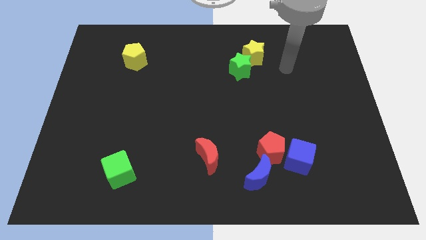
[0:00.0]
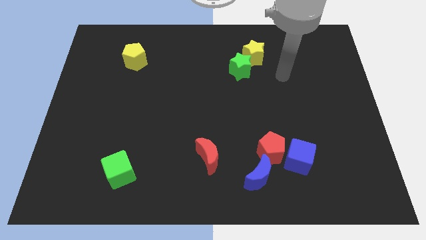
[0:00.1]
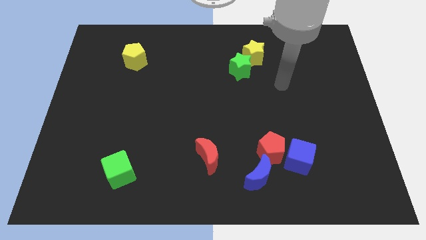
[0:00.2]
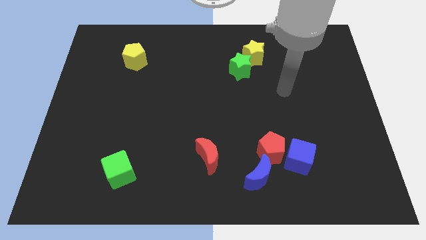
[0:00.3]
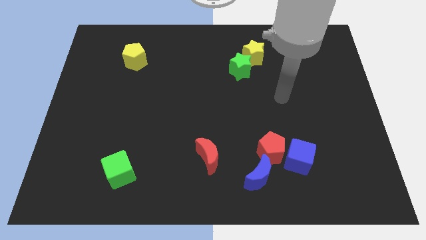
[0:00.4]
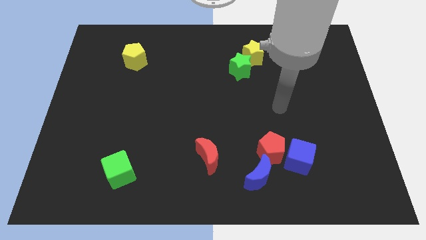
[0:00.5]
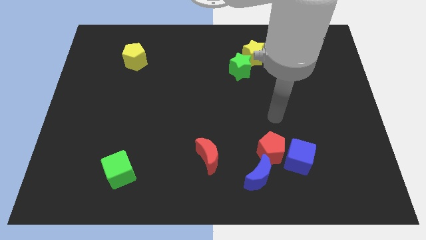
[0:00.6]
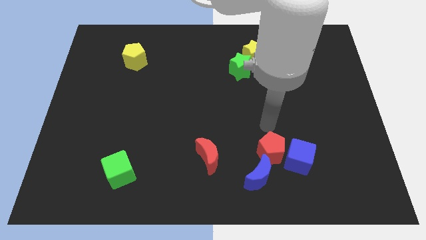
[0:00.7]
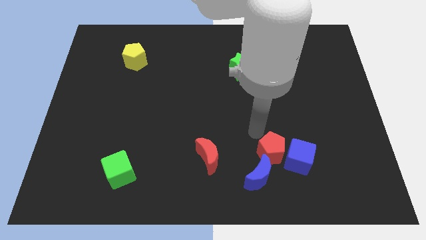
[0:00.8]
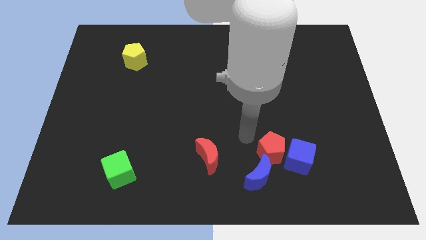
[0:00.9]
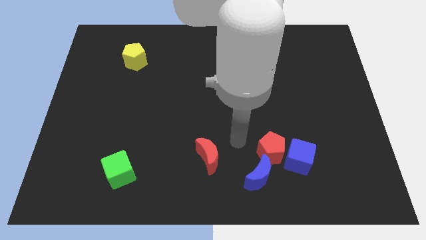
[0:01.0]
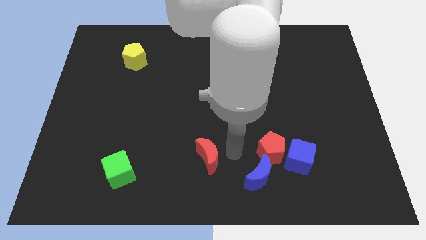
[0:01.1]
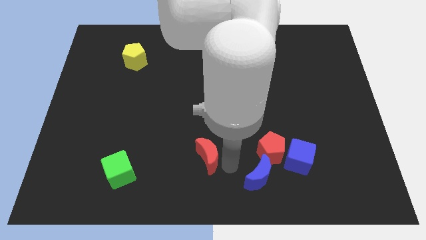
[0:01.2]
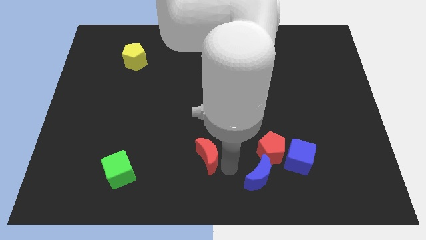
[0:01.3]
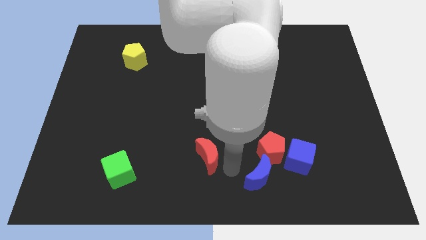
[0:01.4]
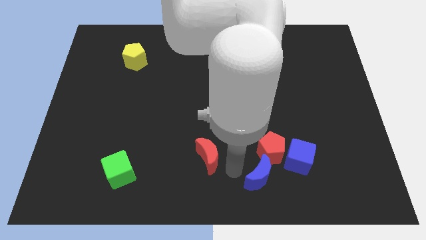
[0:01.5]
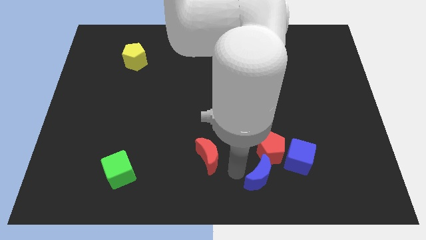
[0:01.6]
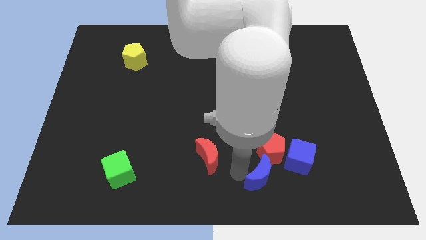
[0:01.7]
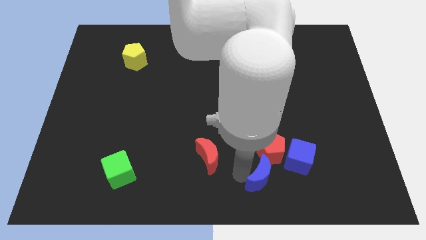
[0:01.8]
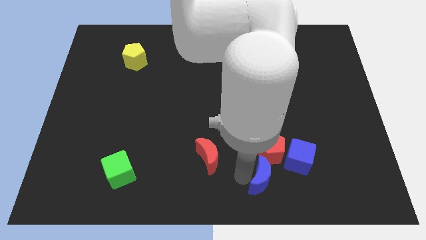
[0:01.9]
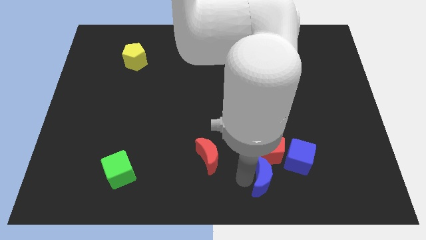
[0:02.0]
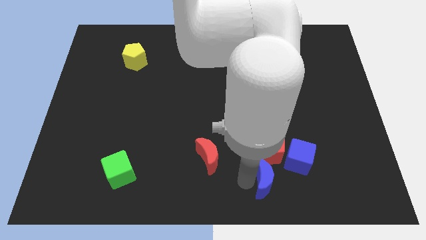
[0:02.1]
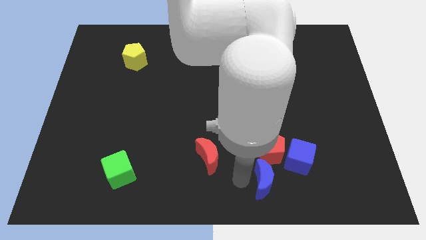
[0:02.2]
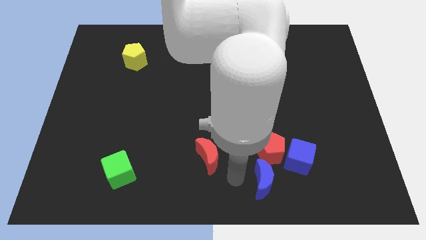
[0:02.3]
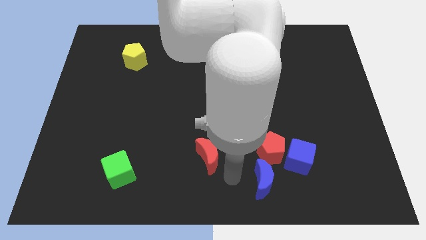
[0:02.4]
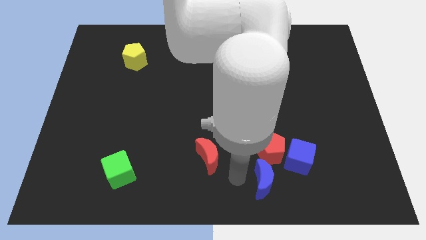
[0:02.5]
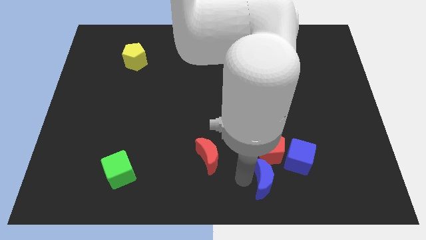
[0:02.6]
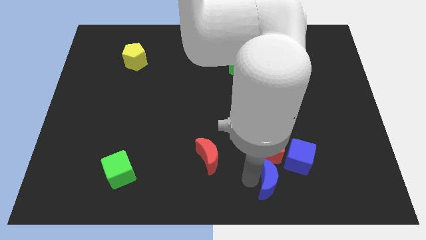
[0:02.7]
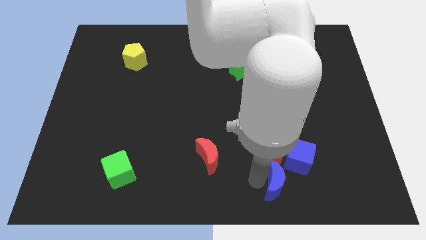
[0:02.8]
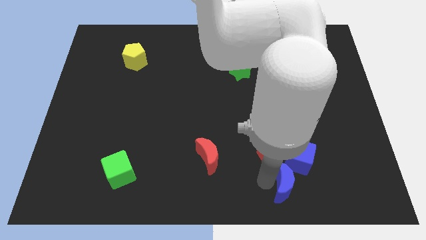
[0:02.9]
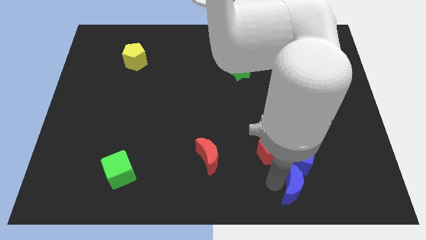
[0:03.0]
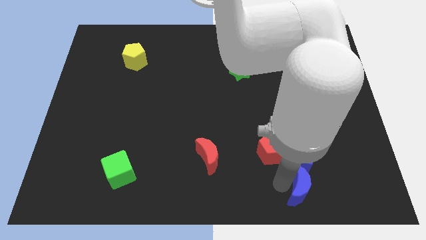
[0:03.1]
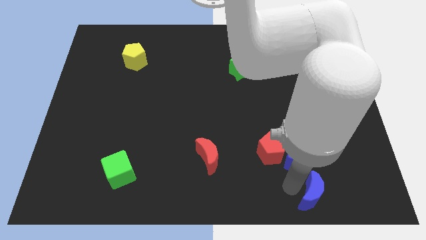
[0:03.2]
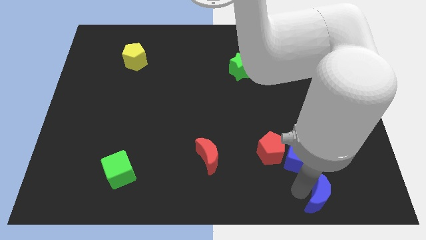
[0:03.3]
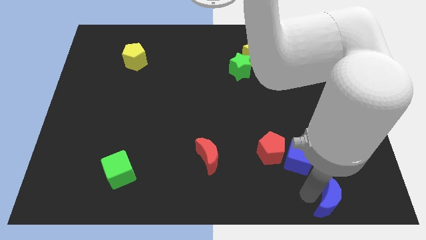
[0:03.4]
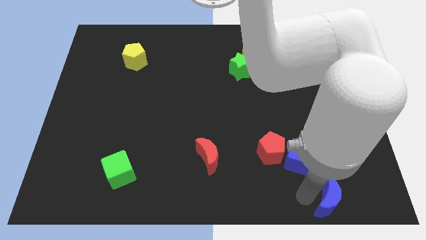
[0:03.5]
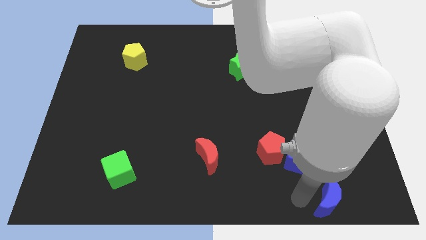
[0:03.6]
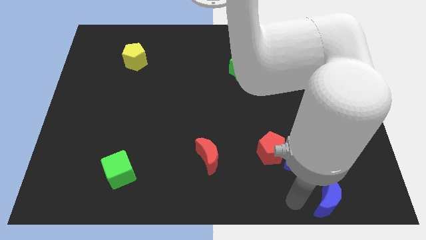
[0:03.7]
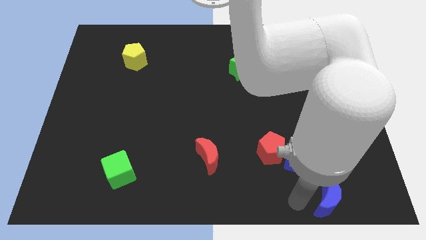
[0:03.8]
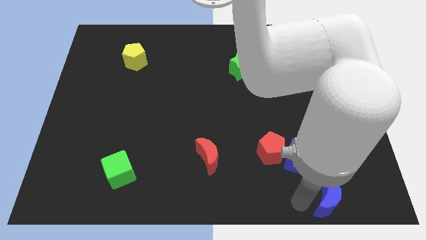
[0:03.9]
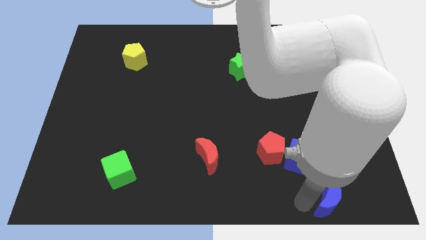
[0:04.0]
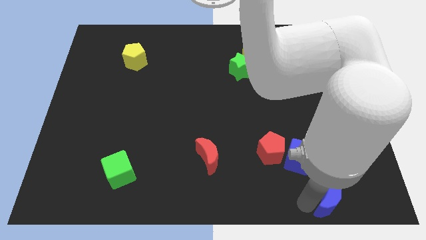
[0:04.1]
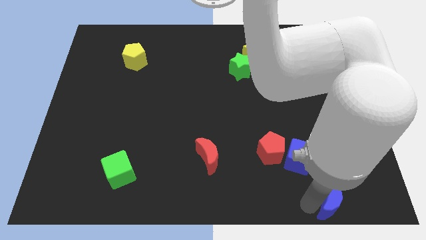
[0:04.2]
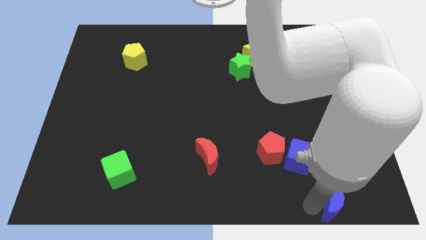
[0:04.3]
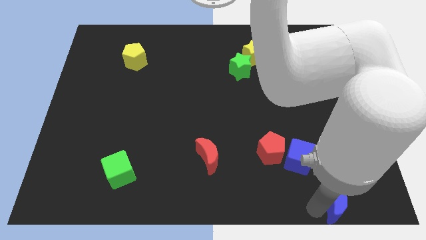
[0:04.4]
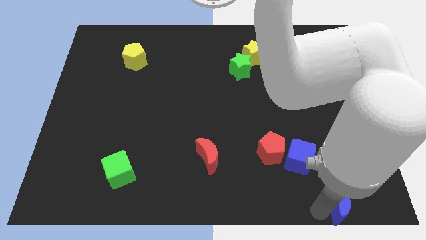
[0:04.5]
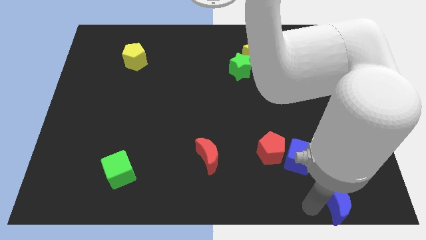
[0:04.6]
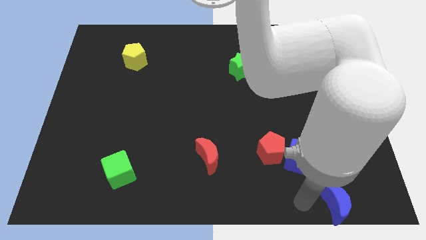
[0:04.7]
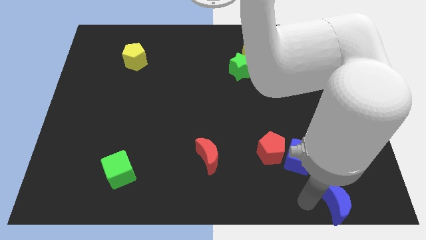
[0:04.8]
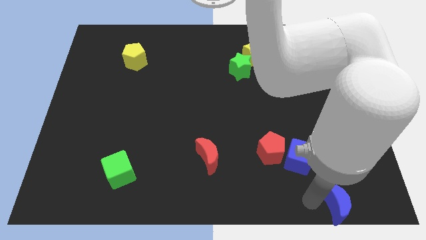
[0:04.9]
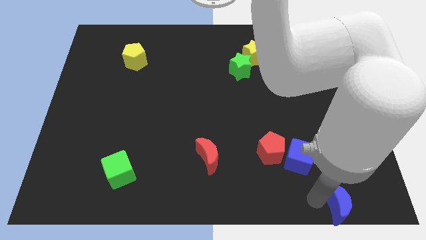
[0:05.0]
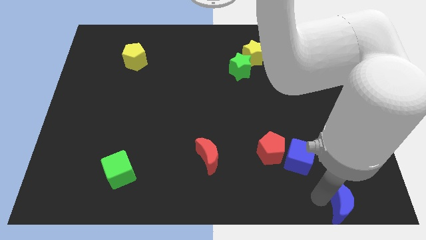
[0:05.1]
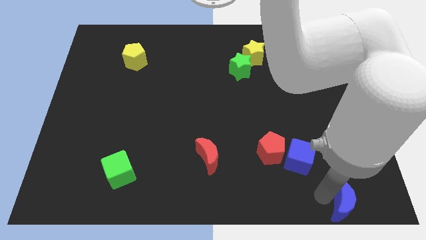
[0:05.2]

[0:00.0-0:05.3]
slide the blue moon to the bottom right corner

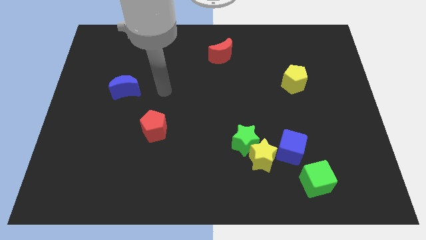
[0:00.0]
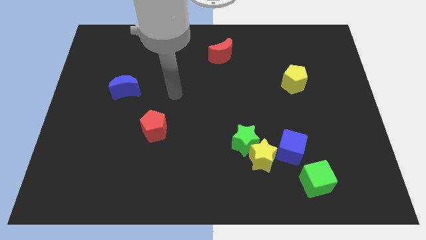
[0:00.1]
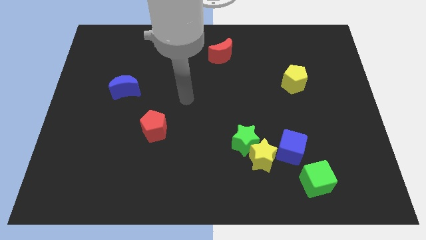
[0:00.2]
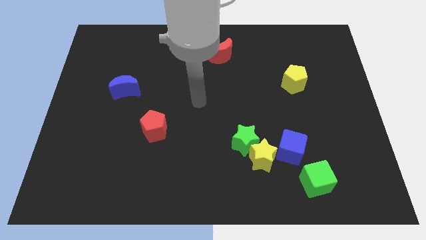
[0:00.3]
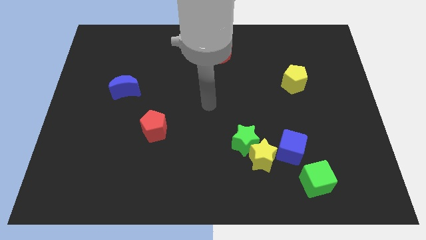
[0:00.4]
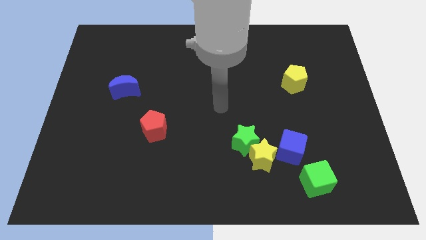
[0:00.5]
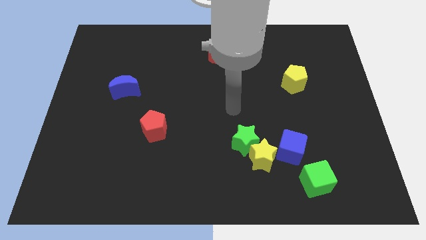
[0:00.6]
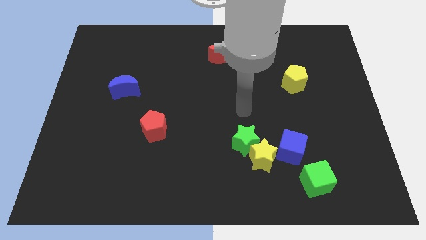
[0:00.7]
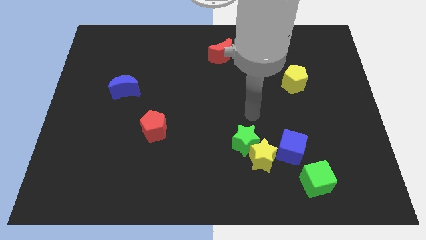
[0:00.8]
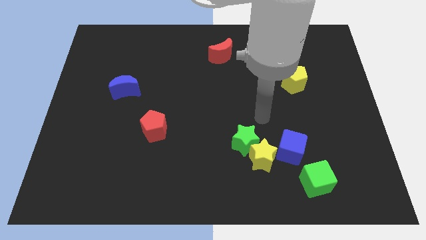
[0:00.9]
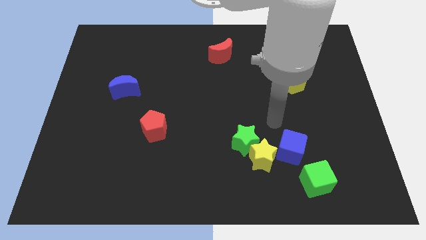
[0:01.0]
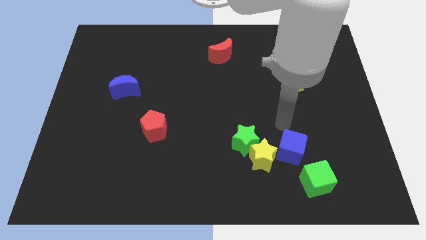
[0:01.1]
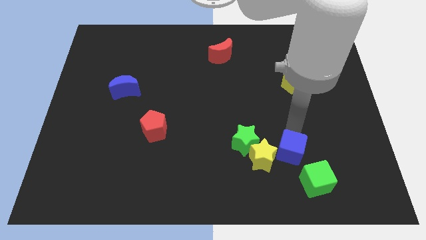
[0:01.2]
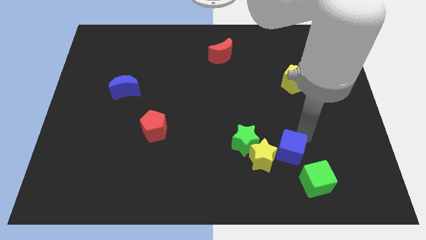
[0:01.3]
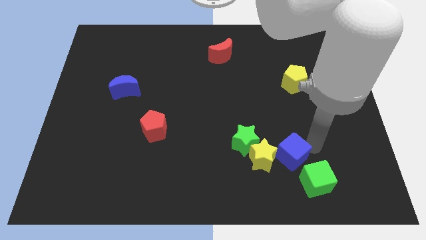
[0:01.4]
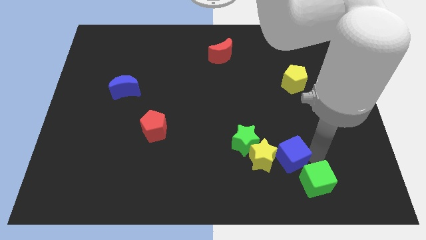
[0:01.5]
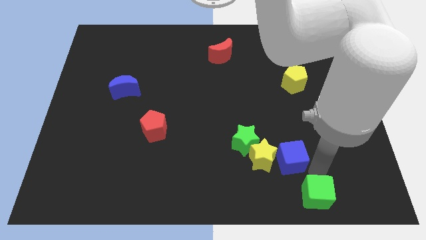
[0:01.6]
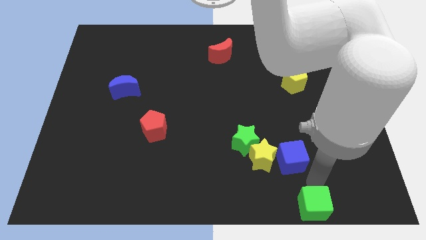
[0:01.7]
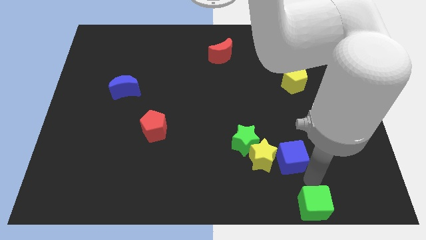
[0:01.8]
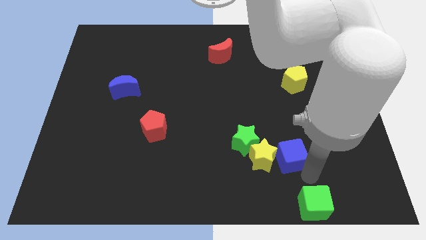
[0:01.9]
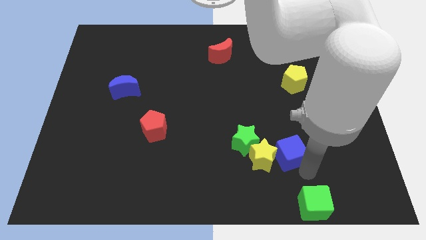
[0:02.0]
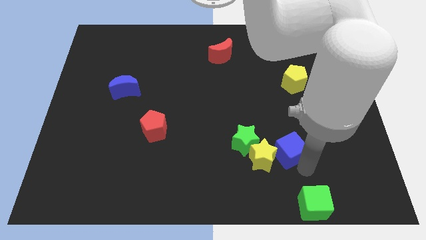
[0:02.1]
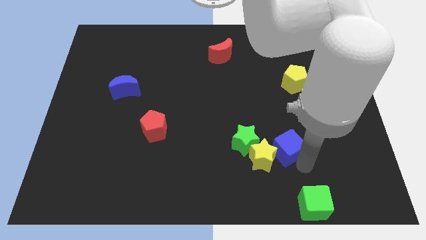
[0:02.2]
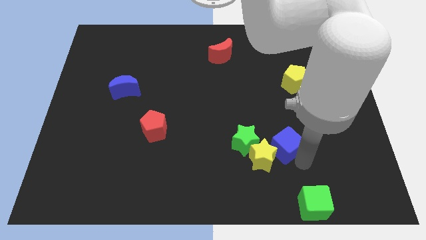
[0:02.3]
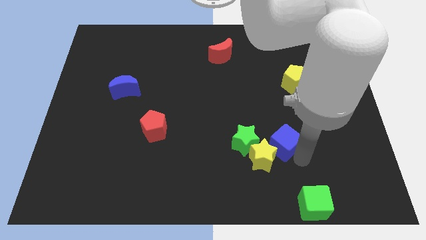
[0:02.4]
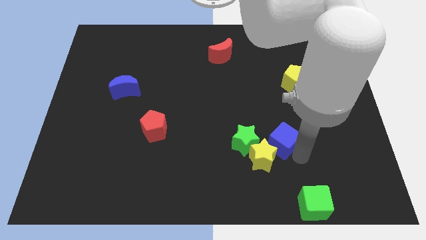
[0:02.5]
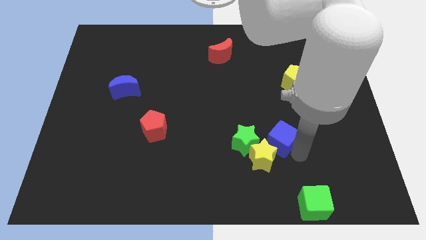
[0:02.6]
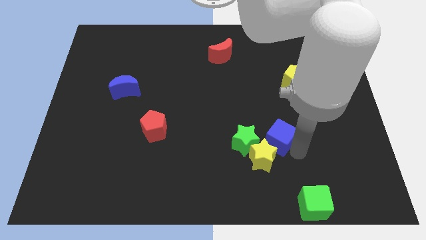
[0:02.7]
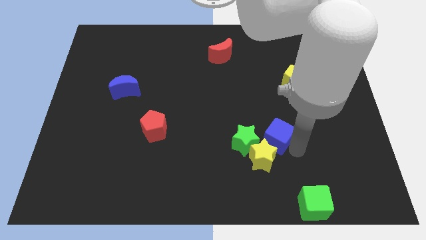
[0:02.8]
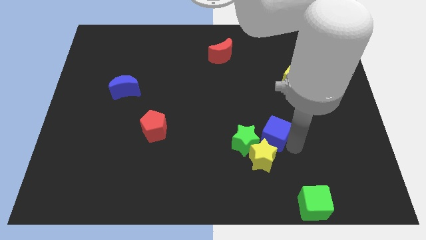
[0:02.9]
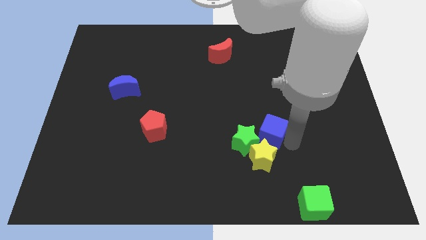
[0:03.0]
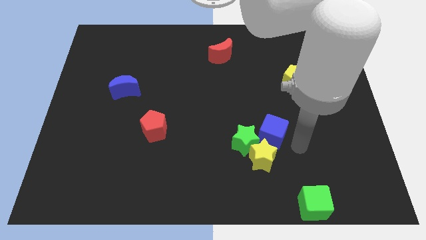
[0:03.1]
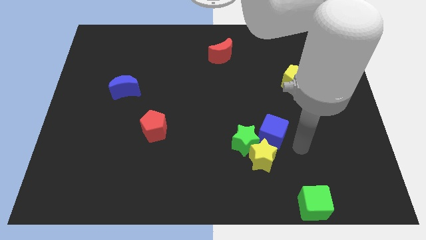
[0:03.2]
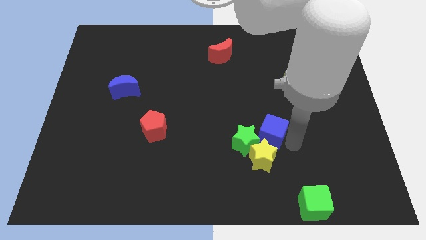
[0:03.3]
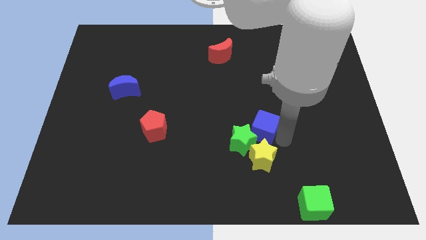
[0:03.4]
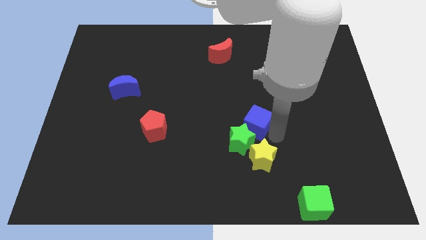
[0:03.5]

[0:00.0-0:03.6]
push the blue cube to the middle of the board
